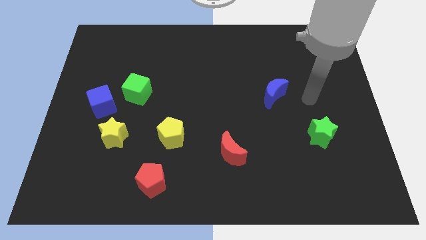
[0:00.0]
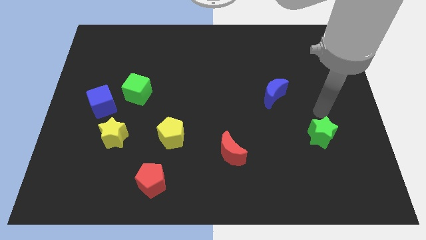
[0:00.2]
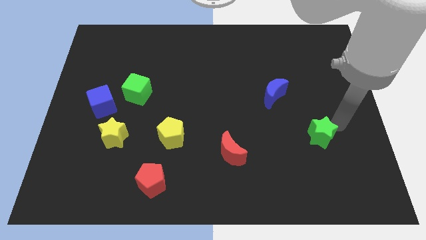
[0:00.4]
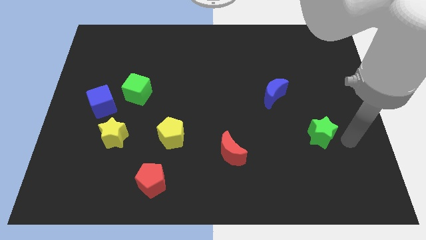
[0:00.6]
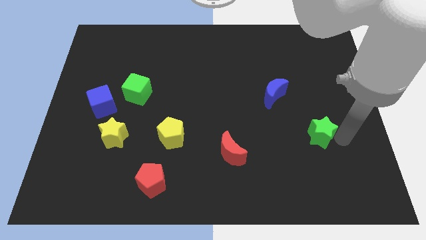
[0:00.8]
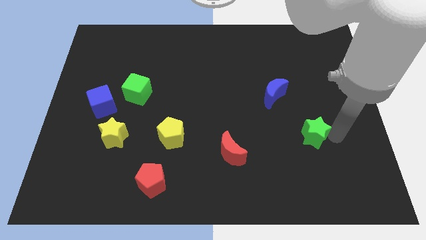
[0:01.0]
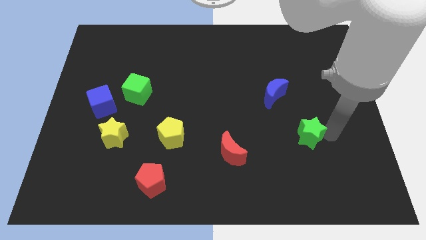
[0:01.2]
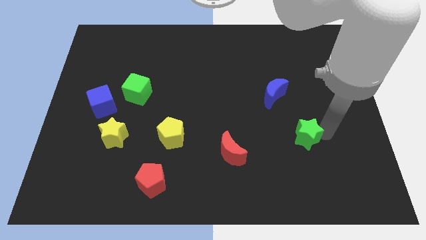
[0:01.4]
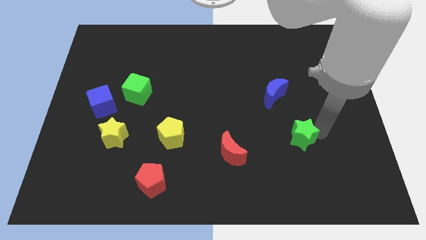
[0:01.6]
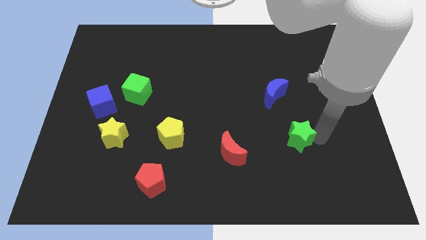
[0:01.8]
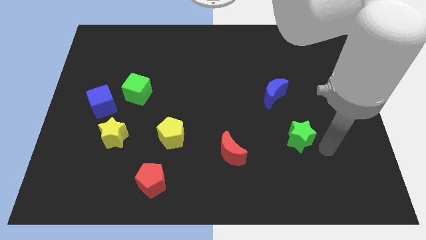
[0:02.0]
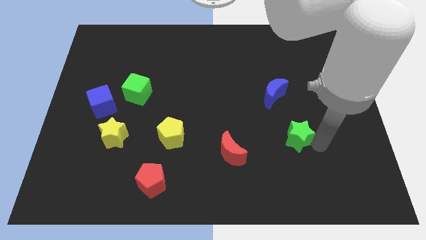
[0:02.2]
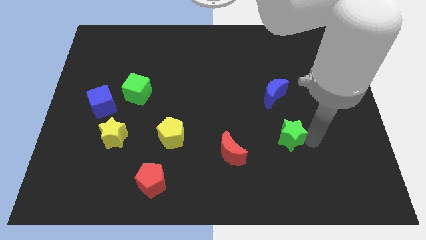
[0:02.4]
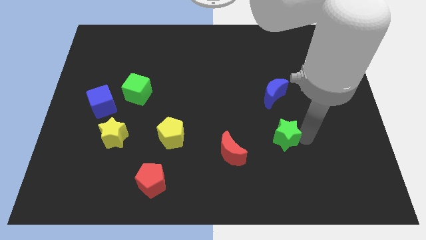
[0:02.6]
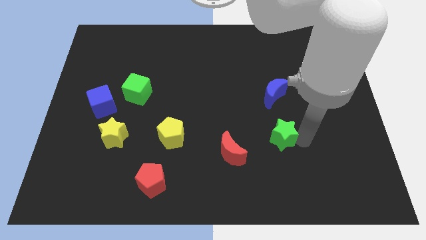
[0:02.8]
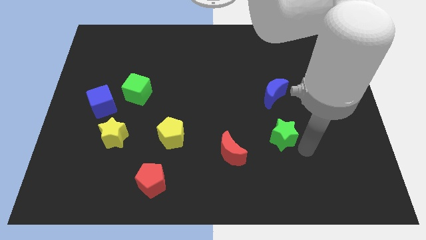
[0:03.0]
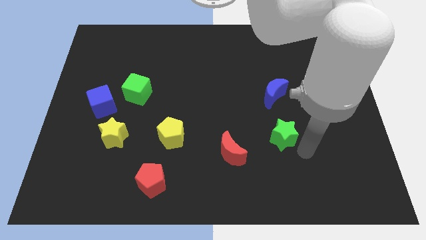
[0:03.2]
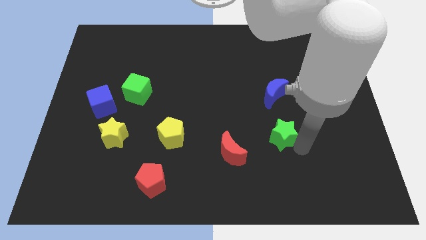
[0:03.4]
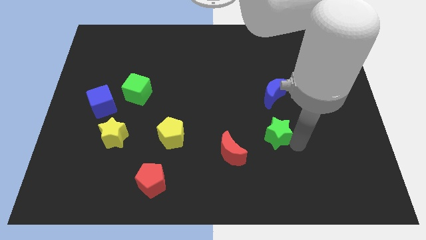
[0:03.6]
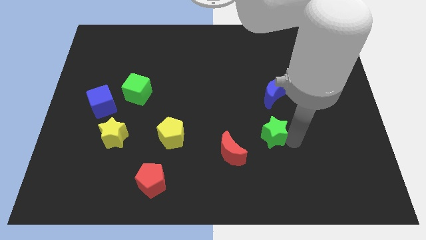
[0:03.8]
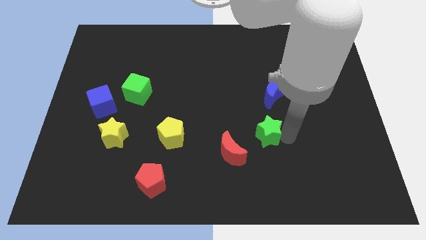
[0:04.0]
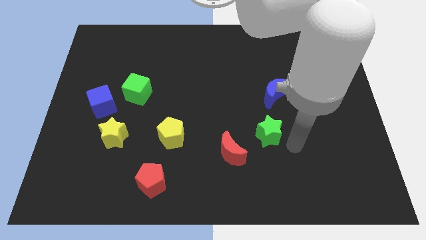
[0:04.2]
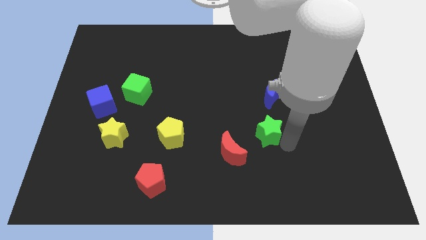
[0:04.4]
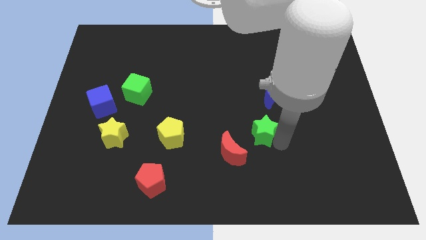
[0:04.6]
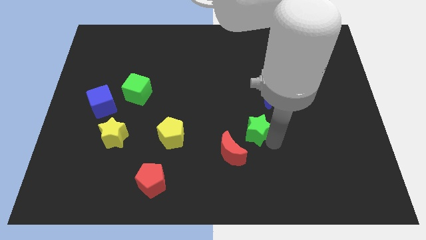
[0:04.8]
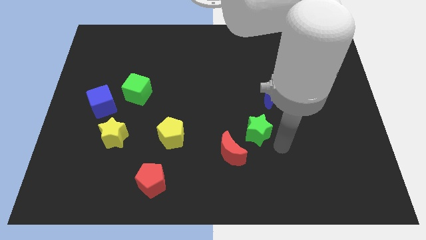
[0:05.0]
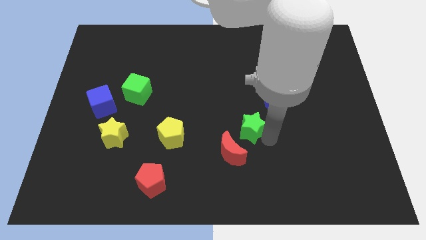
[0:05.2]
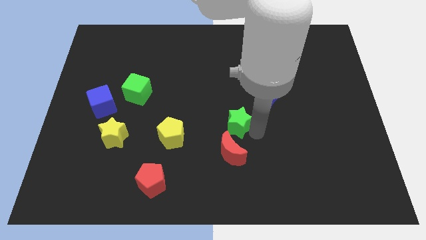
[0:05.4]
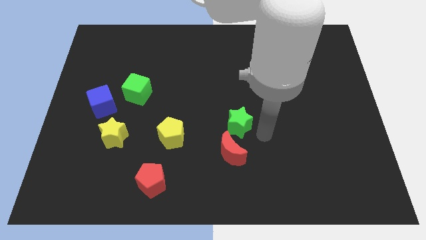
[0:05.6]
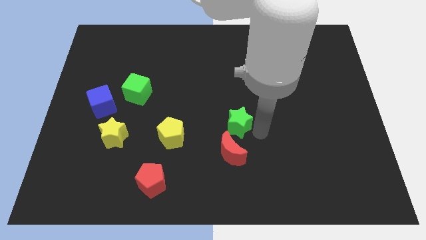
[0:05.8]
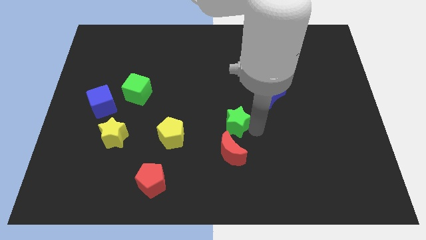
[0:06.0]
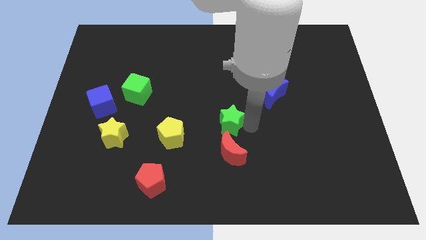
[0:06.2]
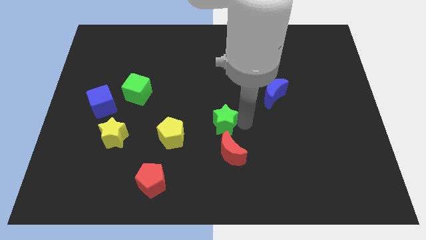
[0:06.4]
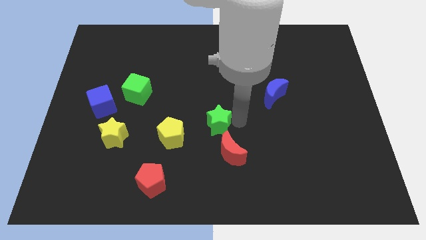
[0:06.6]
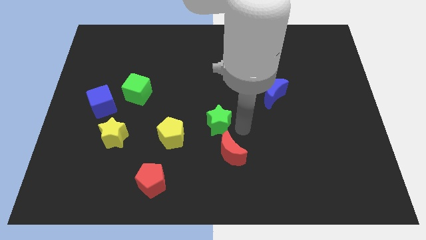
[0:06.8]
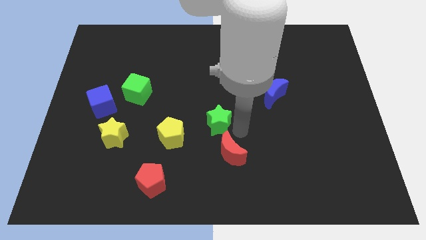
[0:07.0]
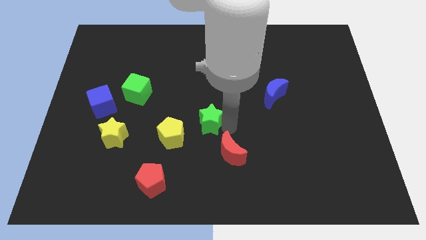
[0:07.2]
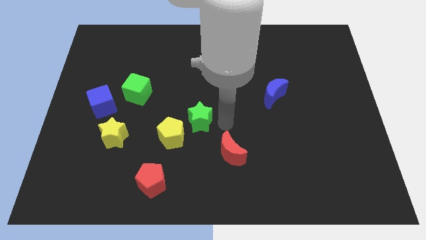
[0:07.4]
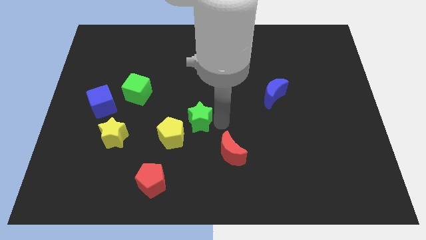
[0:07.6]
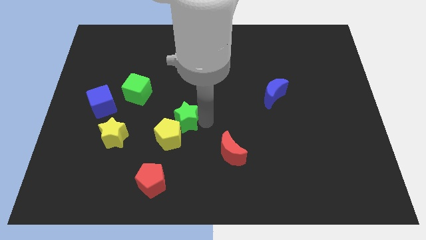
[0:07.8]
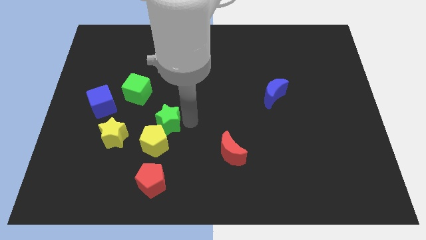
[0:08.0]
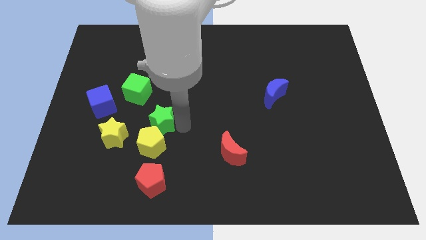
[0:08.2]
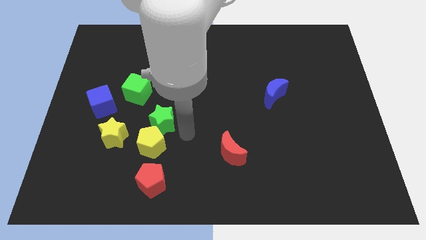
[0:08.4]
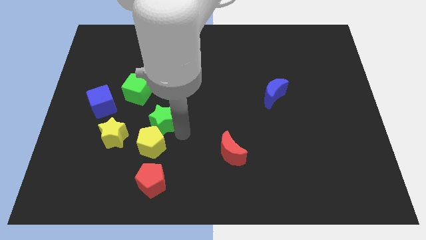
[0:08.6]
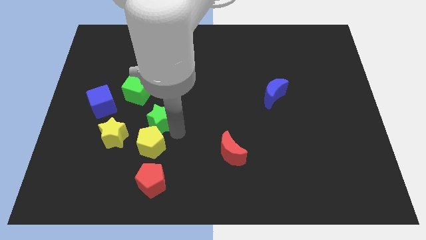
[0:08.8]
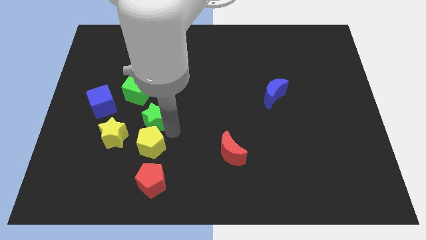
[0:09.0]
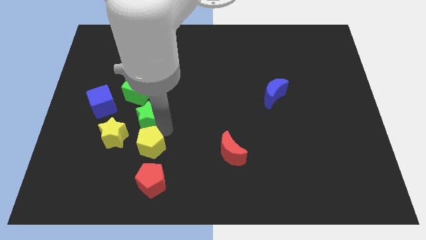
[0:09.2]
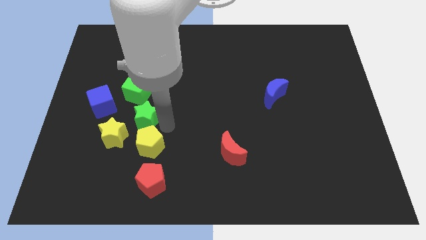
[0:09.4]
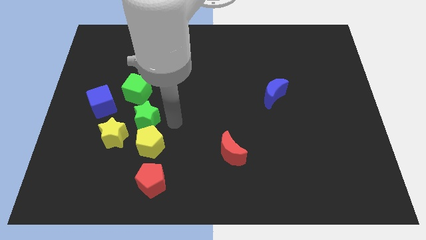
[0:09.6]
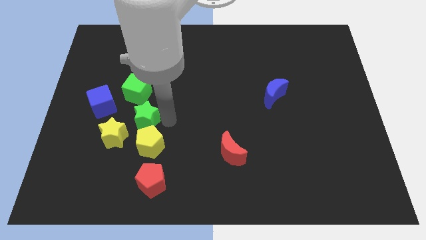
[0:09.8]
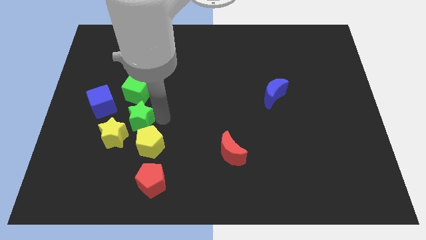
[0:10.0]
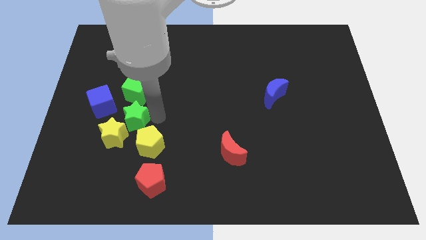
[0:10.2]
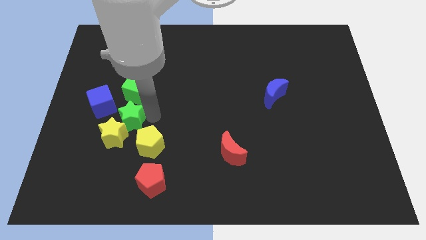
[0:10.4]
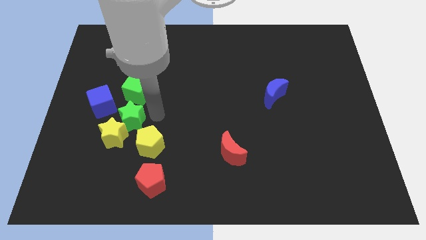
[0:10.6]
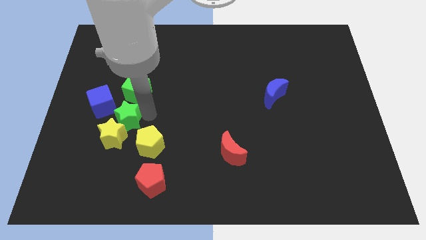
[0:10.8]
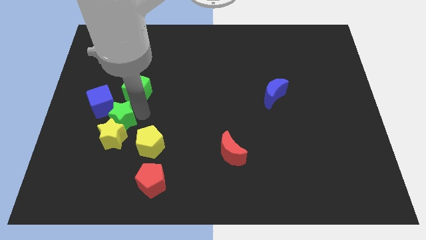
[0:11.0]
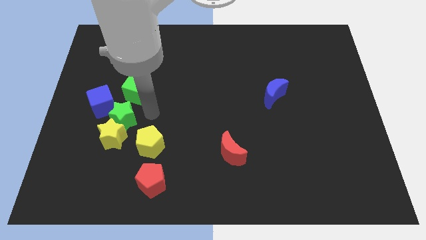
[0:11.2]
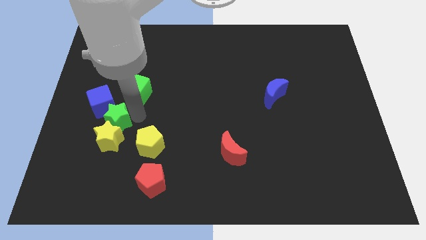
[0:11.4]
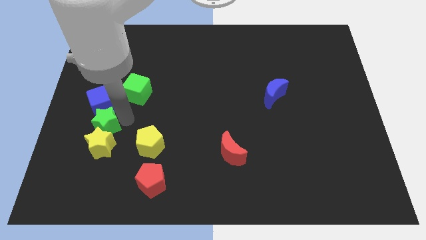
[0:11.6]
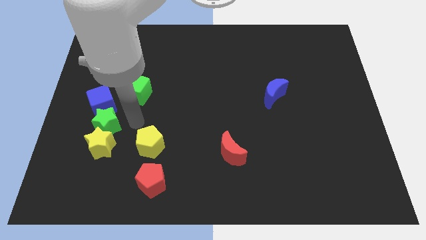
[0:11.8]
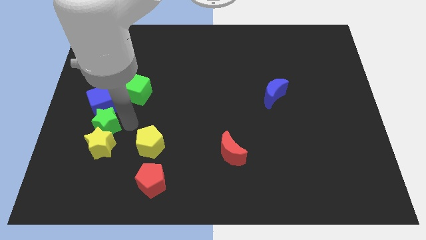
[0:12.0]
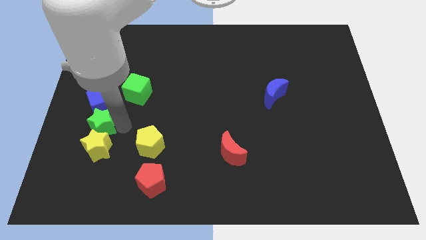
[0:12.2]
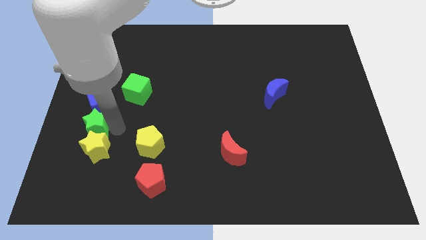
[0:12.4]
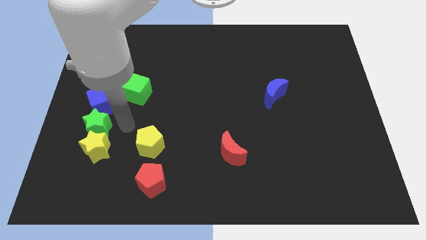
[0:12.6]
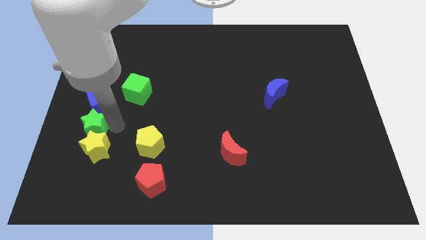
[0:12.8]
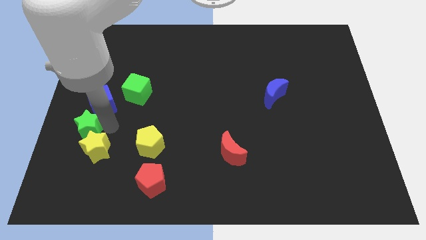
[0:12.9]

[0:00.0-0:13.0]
push the green star to the left side
